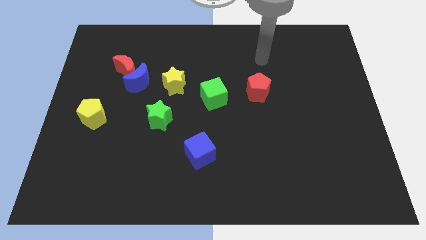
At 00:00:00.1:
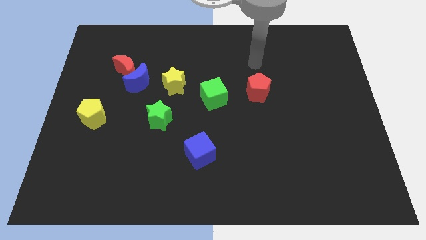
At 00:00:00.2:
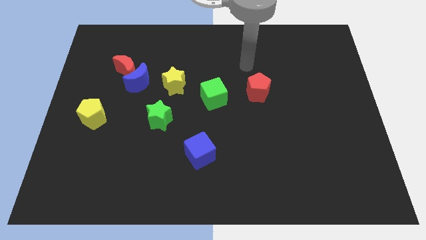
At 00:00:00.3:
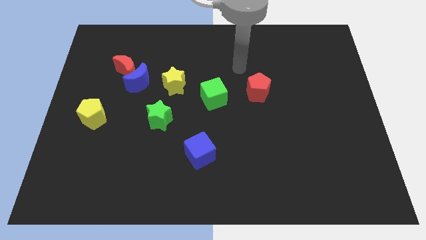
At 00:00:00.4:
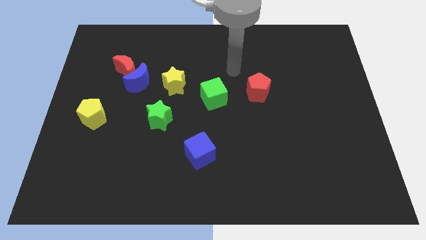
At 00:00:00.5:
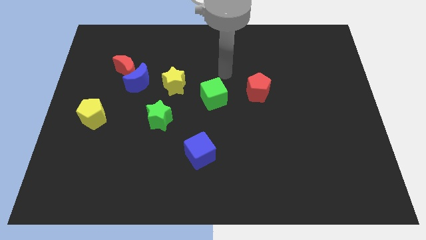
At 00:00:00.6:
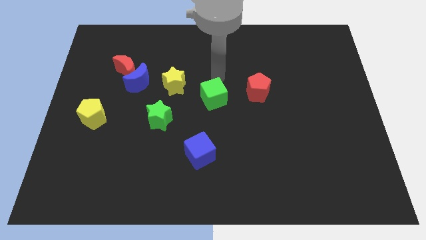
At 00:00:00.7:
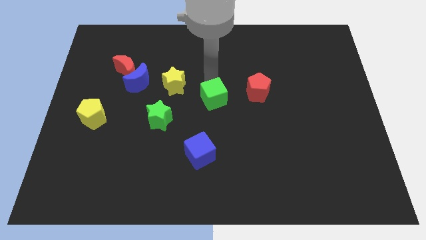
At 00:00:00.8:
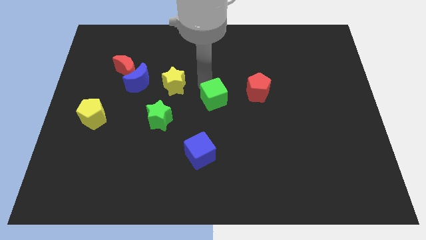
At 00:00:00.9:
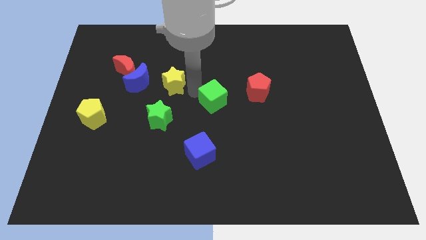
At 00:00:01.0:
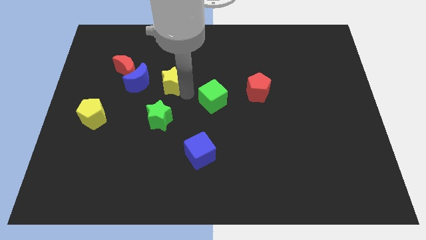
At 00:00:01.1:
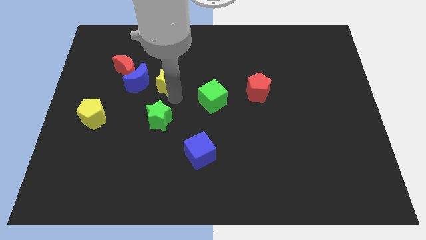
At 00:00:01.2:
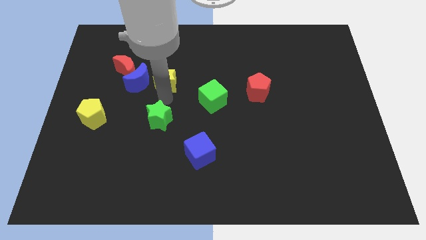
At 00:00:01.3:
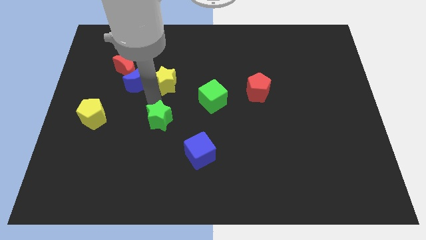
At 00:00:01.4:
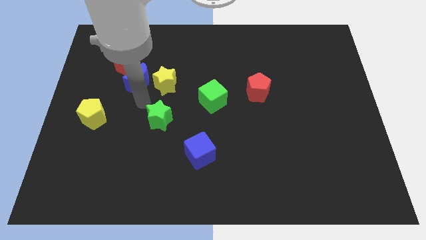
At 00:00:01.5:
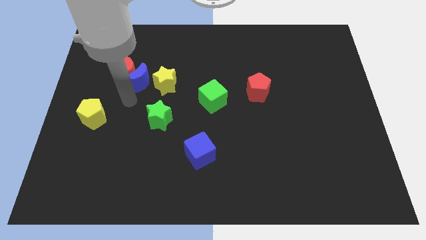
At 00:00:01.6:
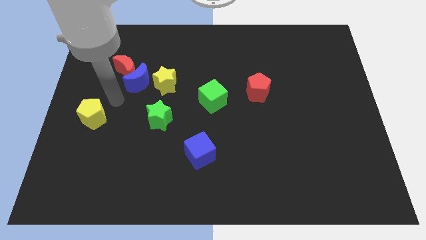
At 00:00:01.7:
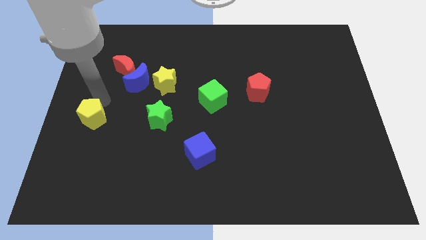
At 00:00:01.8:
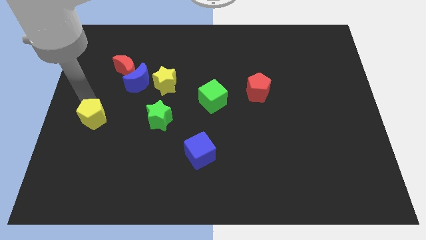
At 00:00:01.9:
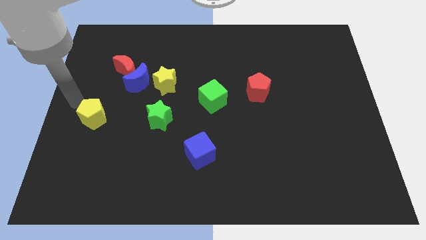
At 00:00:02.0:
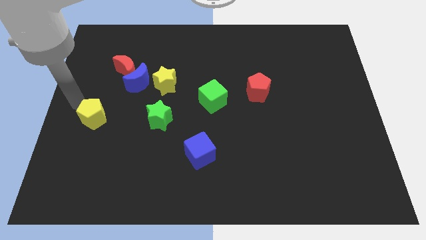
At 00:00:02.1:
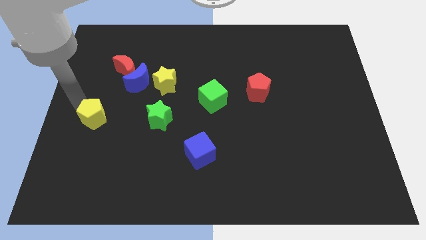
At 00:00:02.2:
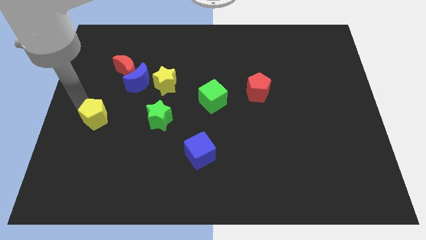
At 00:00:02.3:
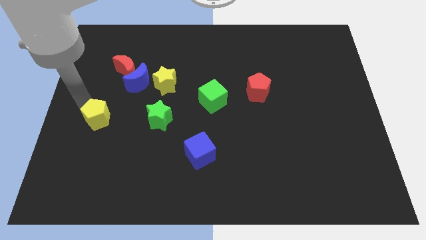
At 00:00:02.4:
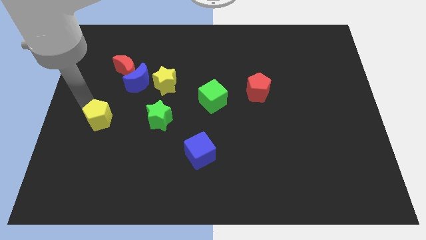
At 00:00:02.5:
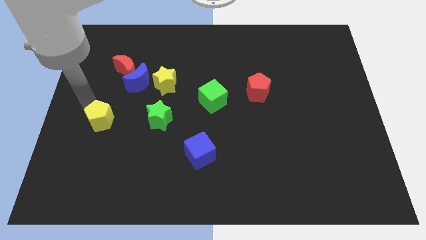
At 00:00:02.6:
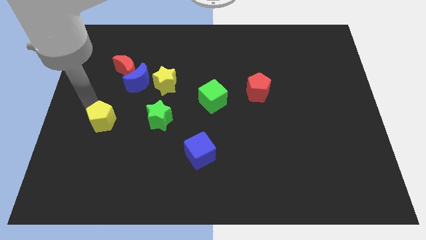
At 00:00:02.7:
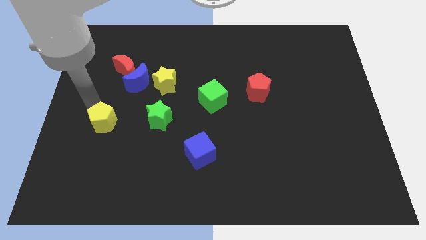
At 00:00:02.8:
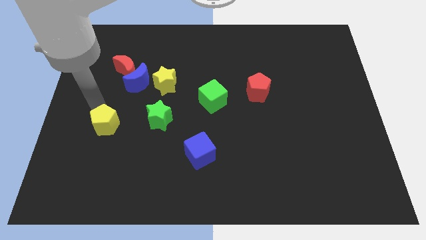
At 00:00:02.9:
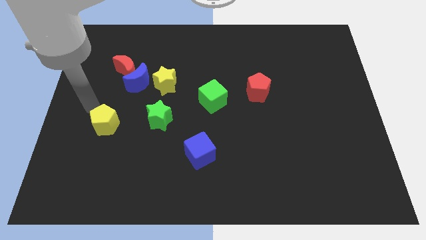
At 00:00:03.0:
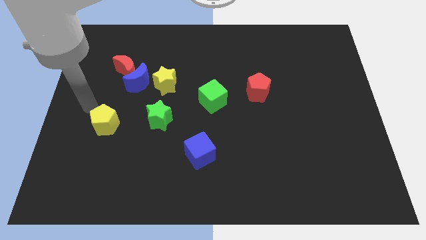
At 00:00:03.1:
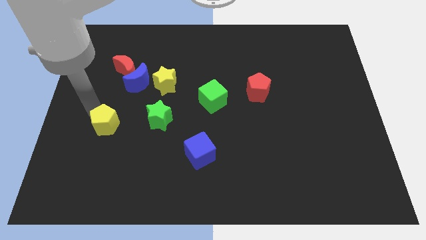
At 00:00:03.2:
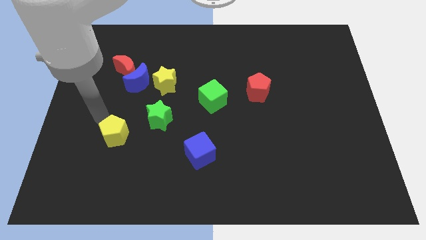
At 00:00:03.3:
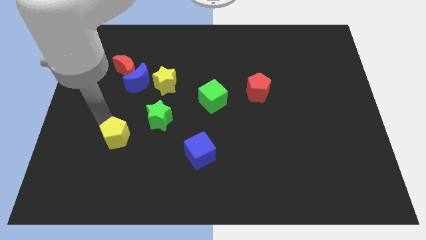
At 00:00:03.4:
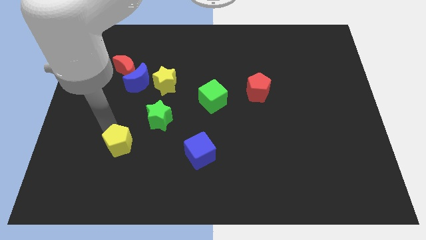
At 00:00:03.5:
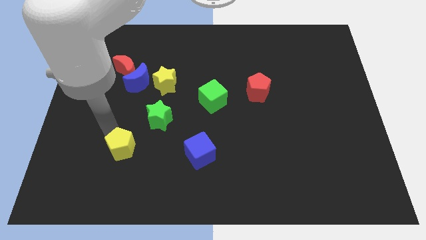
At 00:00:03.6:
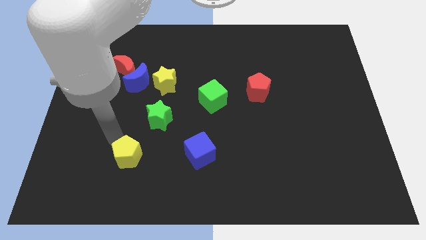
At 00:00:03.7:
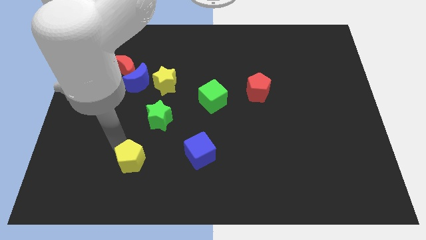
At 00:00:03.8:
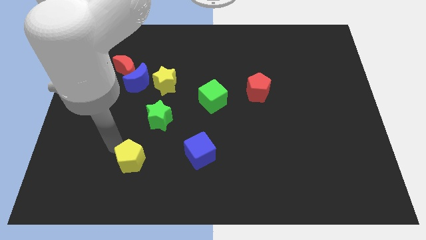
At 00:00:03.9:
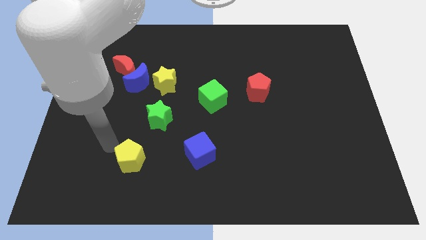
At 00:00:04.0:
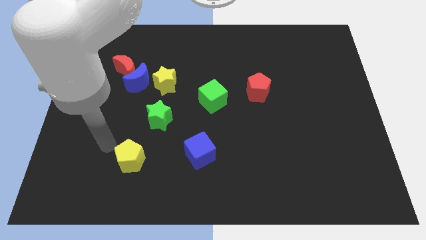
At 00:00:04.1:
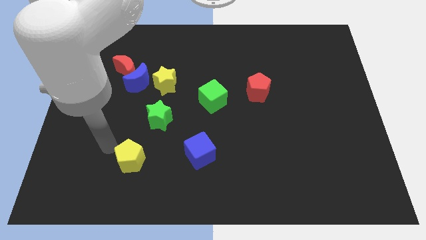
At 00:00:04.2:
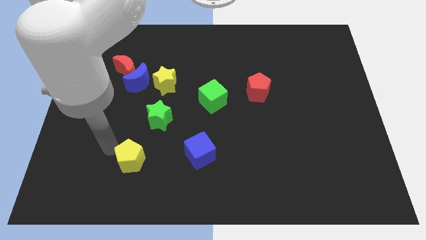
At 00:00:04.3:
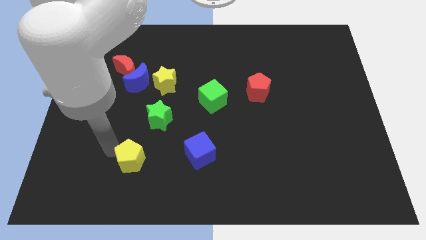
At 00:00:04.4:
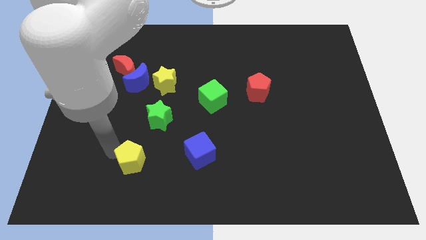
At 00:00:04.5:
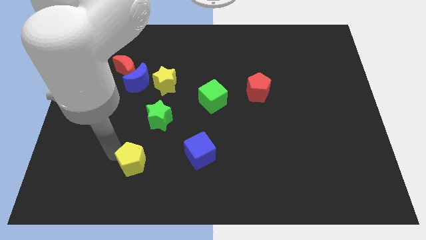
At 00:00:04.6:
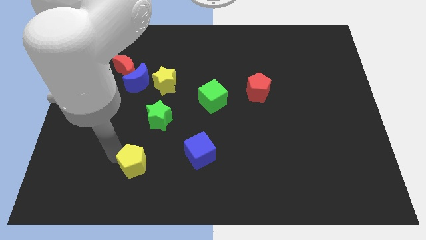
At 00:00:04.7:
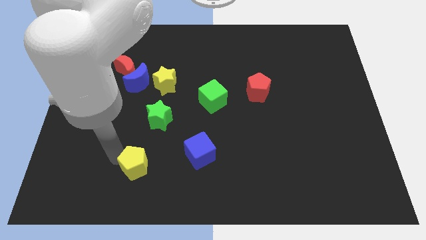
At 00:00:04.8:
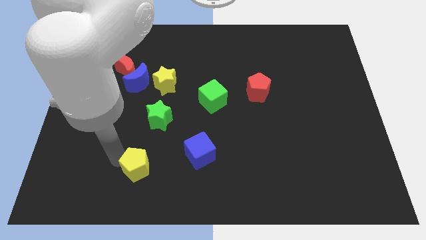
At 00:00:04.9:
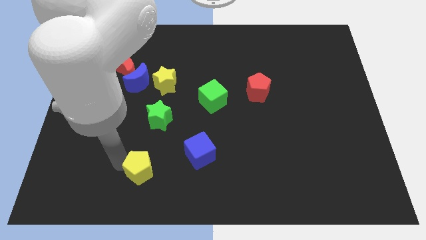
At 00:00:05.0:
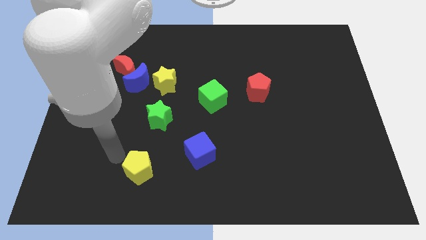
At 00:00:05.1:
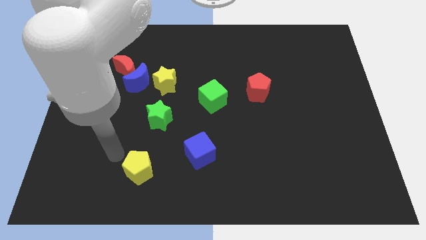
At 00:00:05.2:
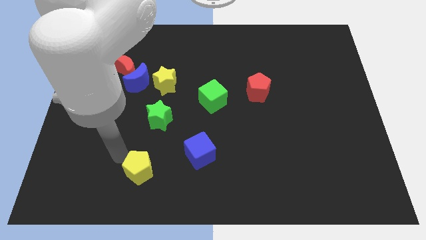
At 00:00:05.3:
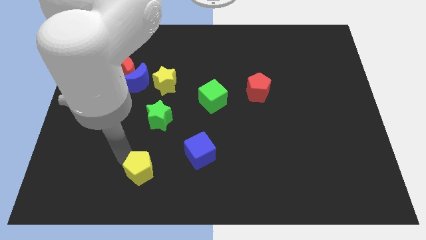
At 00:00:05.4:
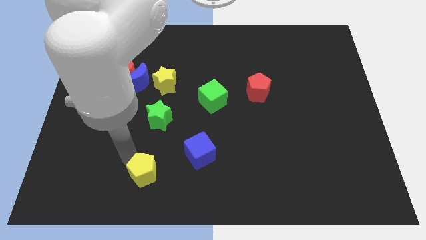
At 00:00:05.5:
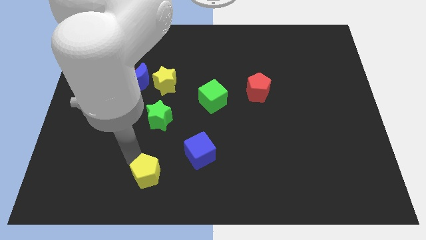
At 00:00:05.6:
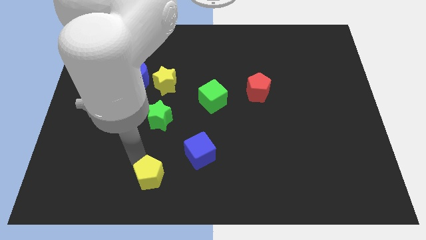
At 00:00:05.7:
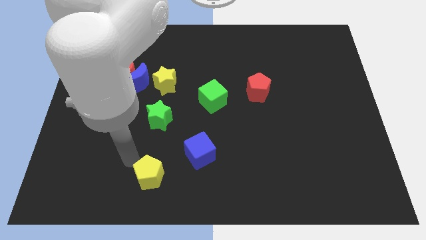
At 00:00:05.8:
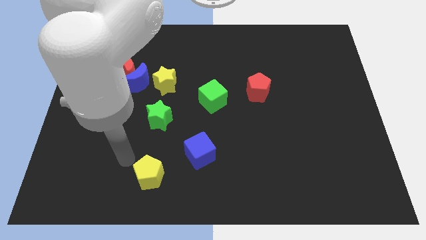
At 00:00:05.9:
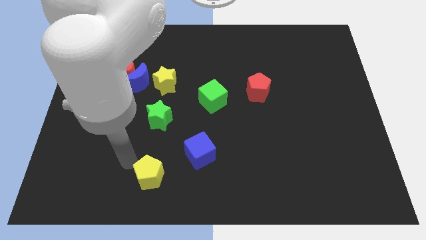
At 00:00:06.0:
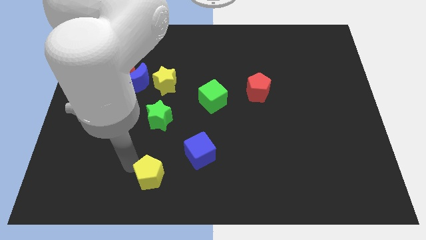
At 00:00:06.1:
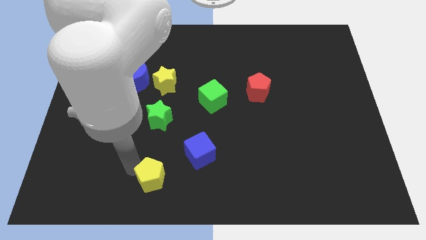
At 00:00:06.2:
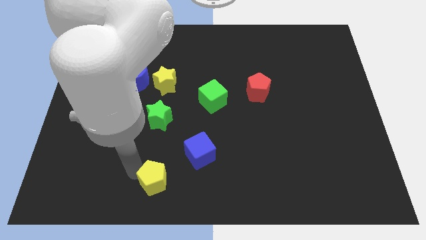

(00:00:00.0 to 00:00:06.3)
put the yellow pentagon to the bottom
